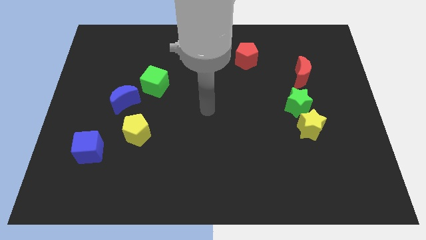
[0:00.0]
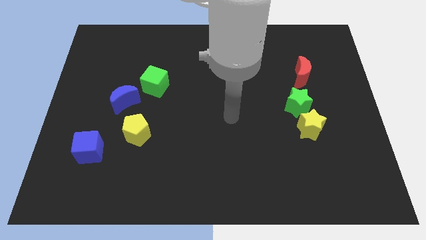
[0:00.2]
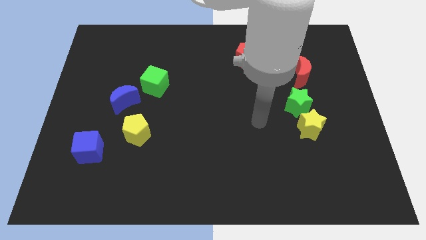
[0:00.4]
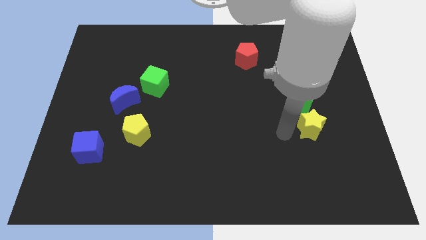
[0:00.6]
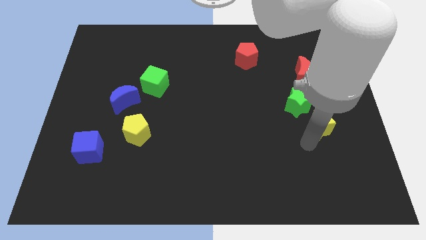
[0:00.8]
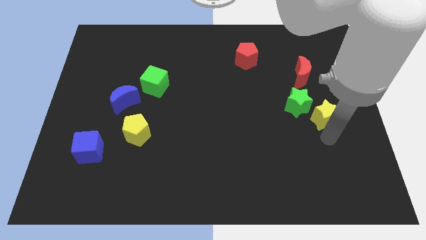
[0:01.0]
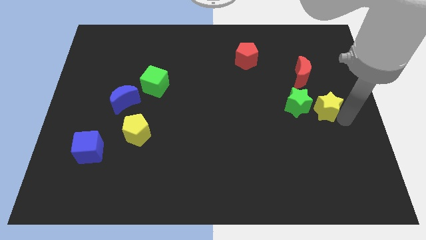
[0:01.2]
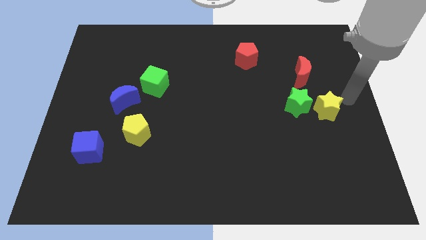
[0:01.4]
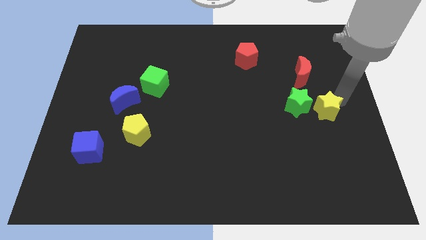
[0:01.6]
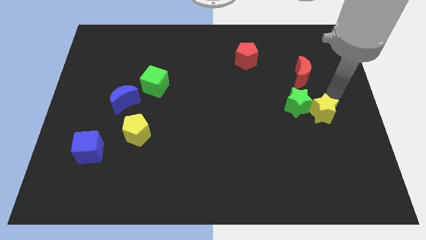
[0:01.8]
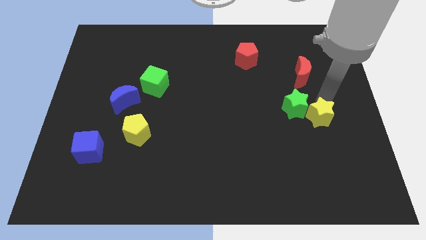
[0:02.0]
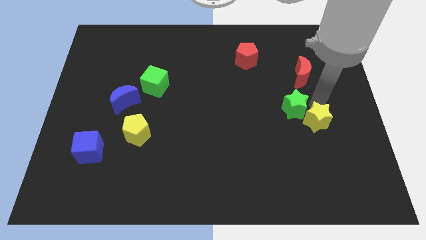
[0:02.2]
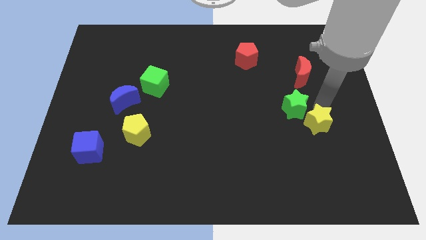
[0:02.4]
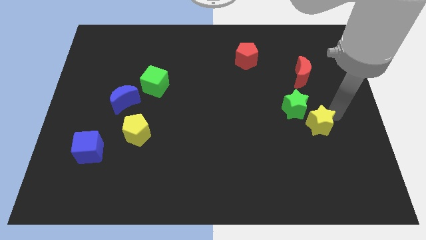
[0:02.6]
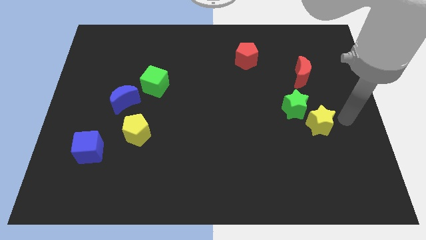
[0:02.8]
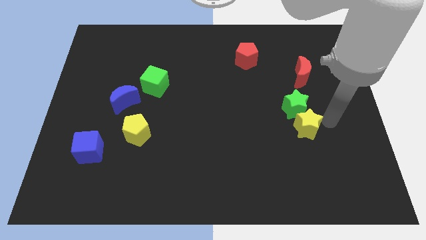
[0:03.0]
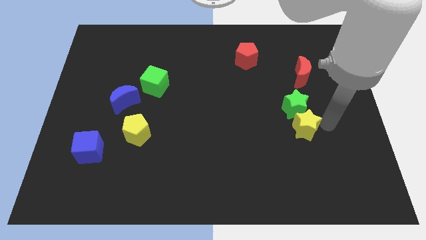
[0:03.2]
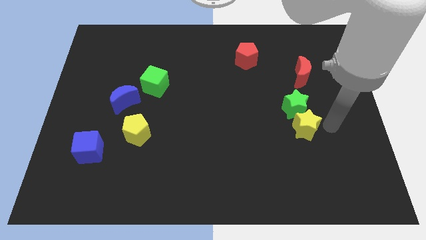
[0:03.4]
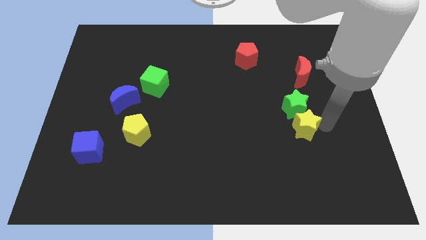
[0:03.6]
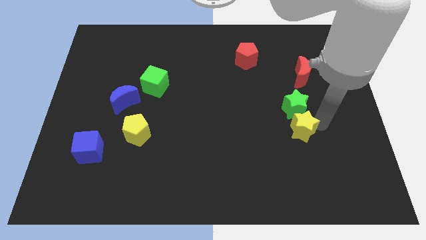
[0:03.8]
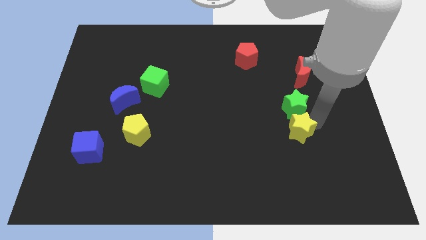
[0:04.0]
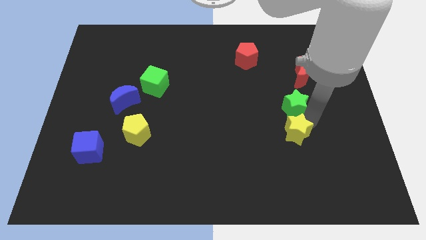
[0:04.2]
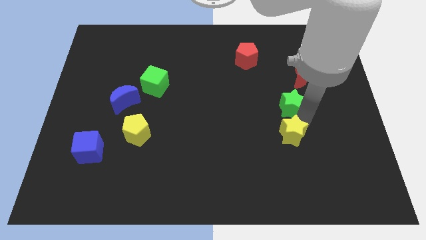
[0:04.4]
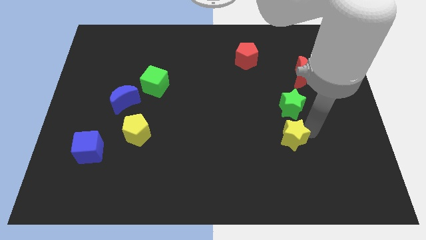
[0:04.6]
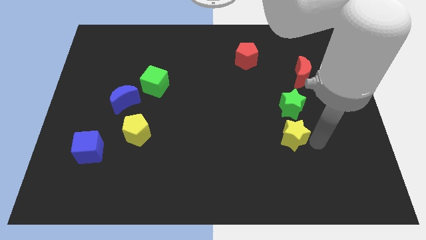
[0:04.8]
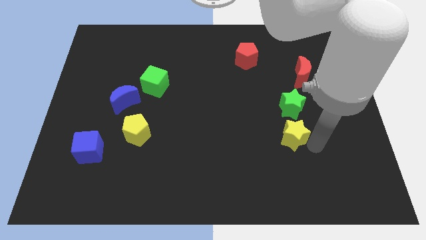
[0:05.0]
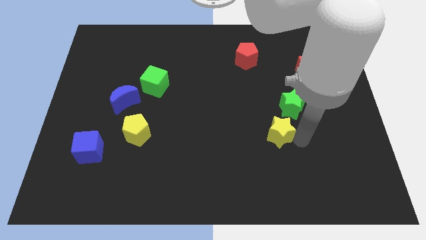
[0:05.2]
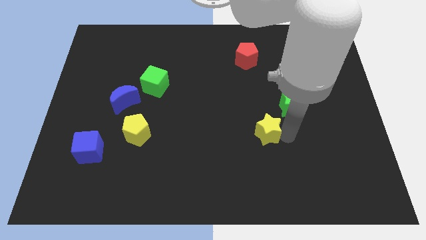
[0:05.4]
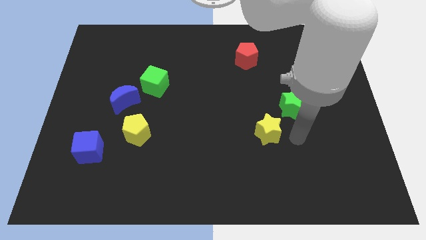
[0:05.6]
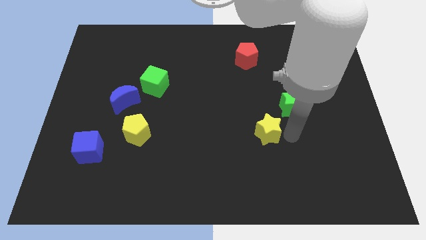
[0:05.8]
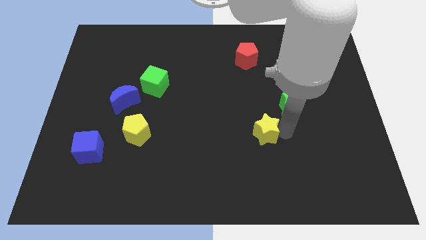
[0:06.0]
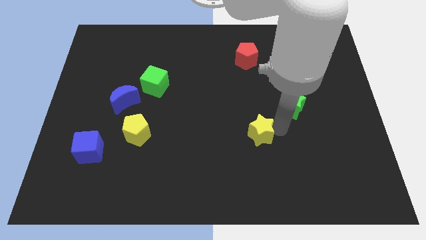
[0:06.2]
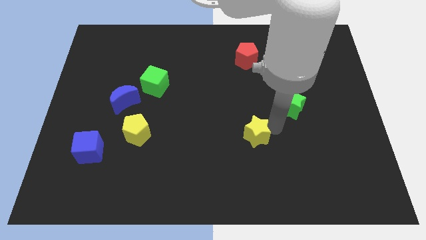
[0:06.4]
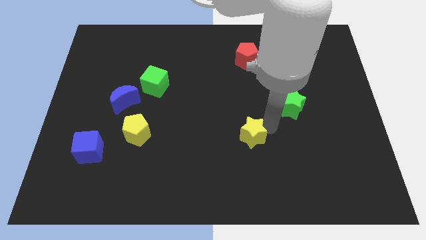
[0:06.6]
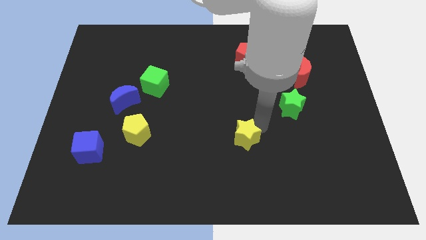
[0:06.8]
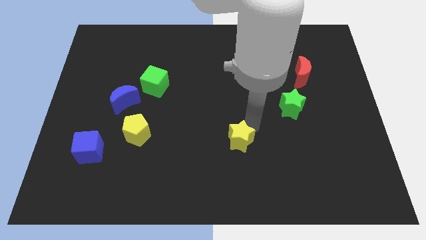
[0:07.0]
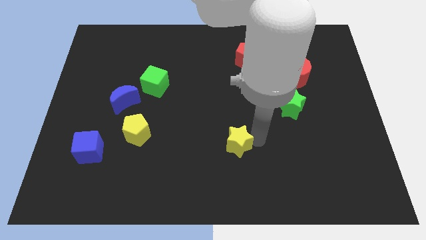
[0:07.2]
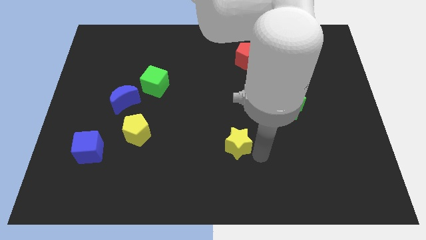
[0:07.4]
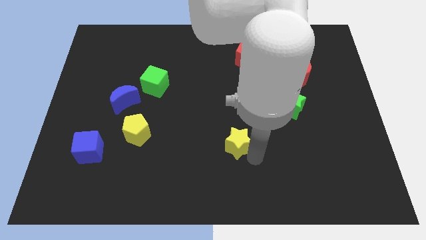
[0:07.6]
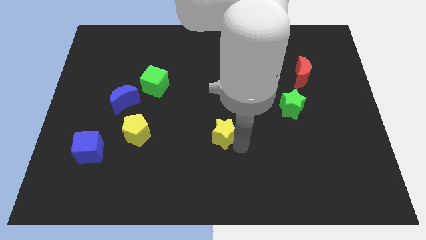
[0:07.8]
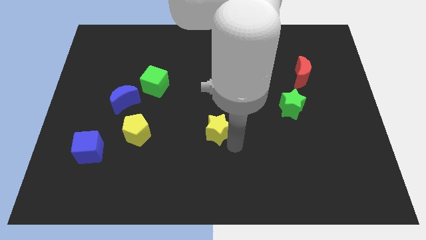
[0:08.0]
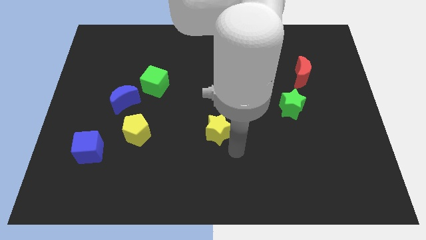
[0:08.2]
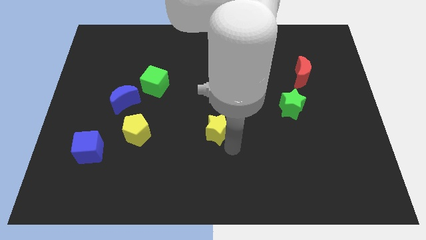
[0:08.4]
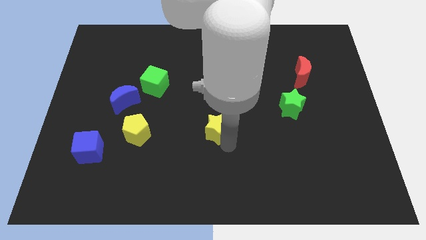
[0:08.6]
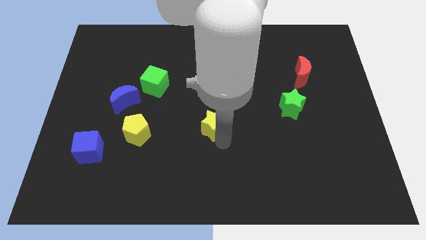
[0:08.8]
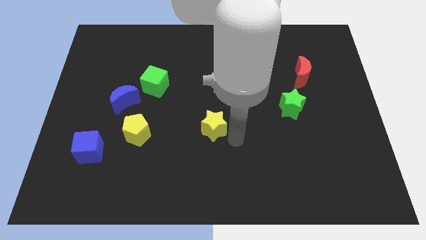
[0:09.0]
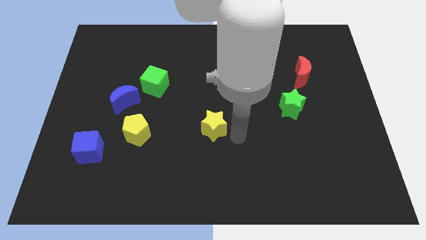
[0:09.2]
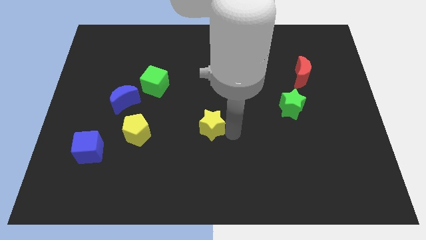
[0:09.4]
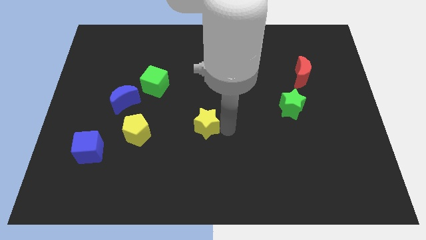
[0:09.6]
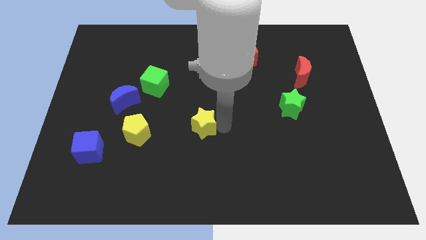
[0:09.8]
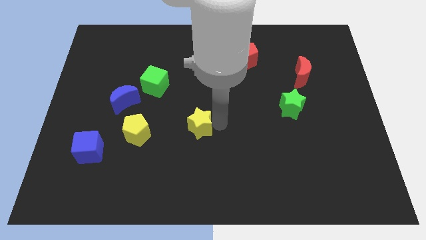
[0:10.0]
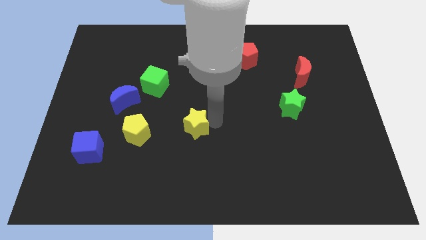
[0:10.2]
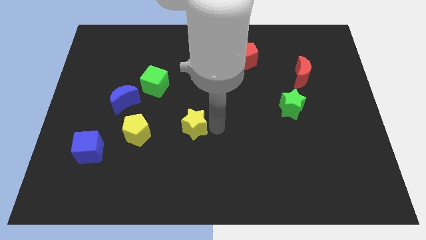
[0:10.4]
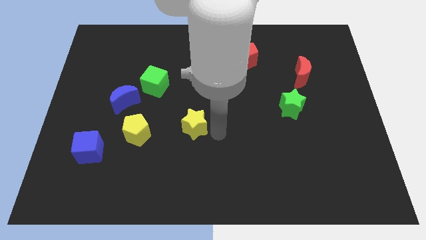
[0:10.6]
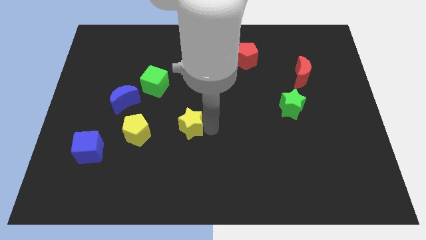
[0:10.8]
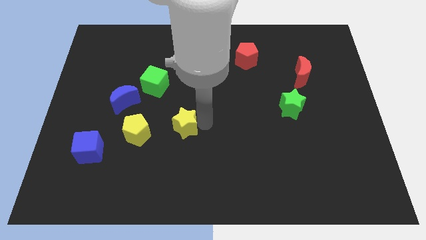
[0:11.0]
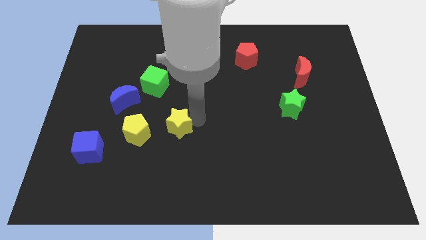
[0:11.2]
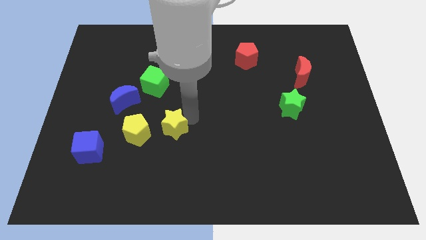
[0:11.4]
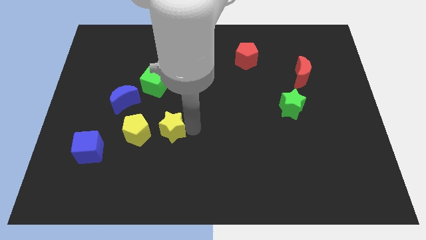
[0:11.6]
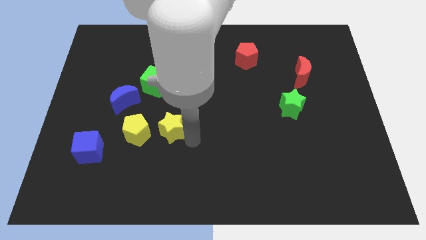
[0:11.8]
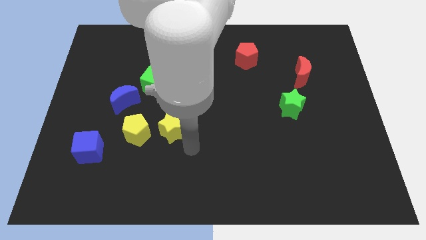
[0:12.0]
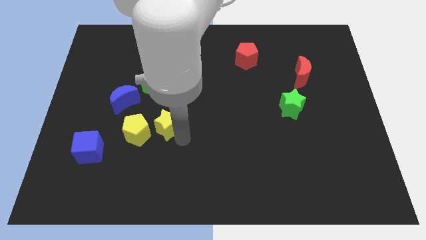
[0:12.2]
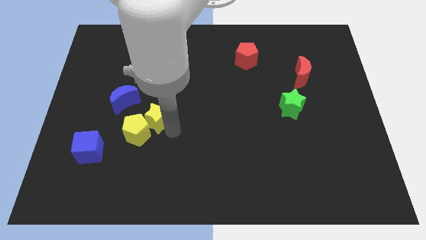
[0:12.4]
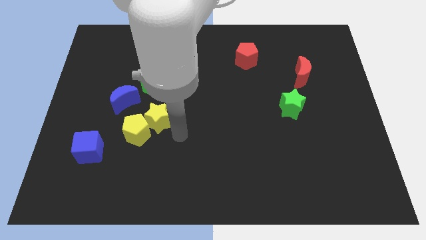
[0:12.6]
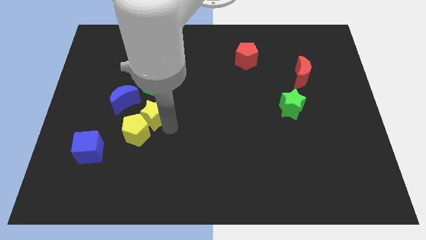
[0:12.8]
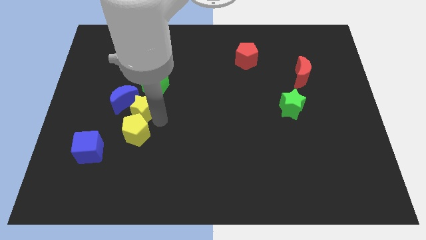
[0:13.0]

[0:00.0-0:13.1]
push the yellow star to the blue moon
